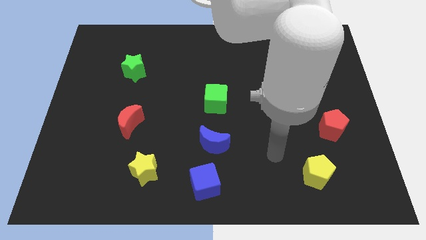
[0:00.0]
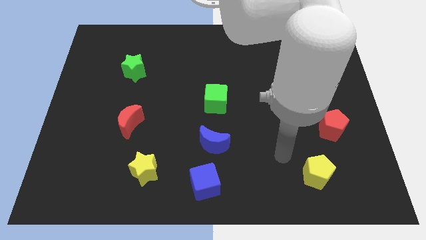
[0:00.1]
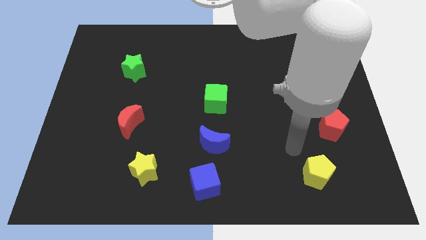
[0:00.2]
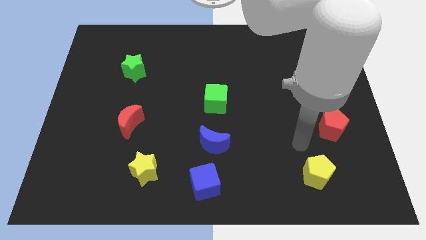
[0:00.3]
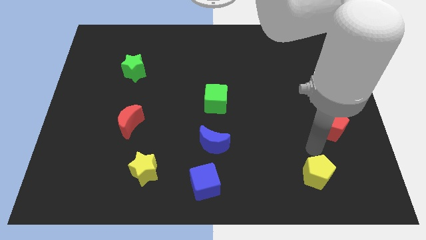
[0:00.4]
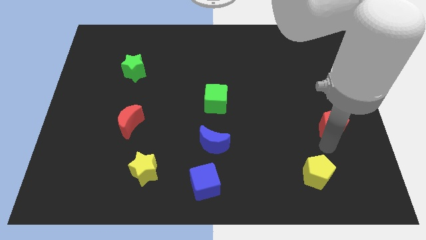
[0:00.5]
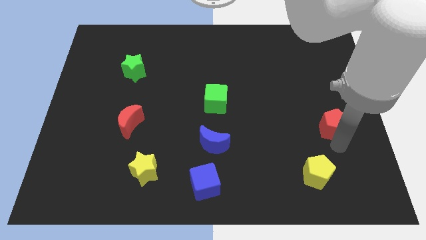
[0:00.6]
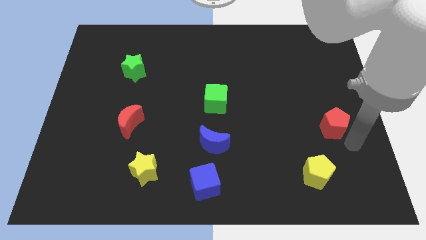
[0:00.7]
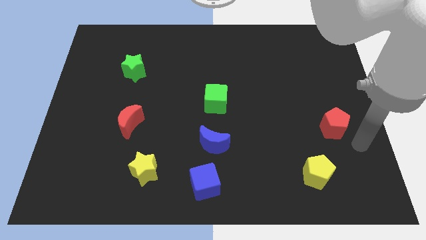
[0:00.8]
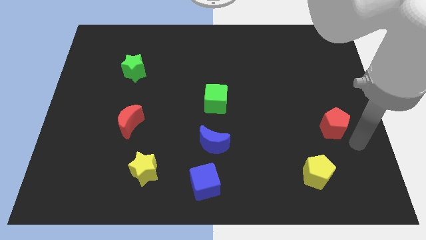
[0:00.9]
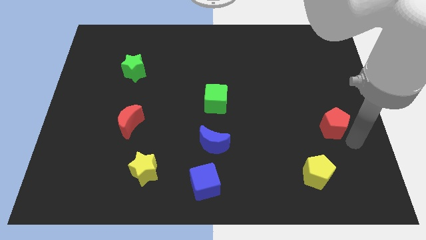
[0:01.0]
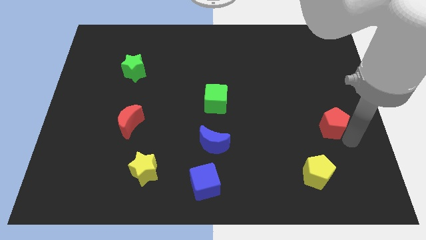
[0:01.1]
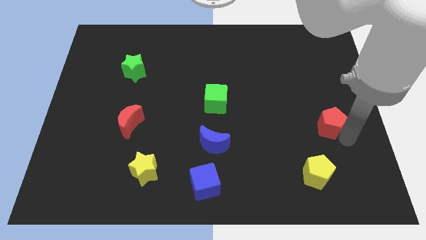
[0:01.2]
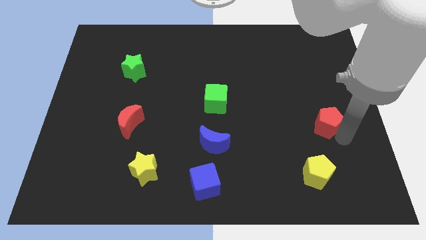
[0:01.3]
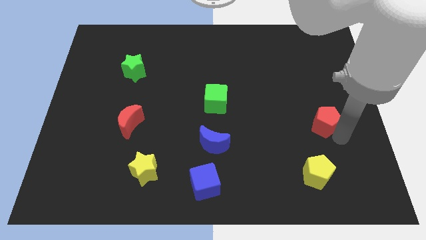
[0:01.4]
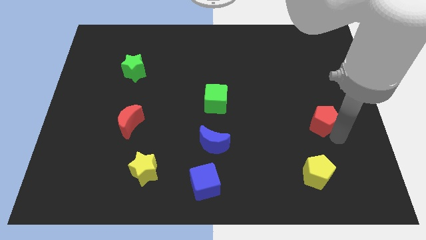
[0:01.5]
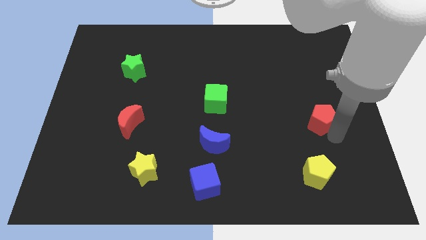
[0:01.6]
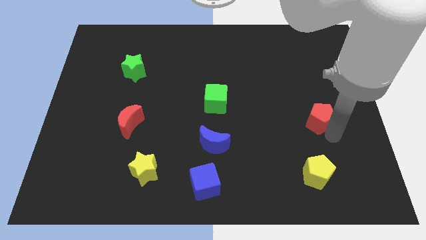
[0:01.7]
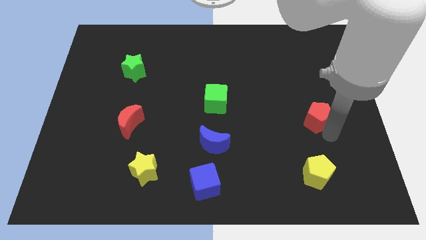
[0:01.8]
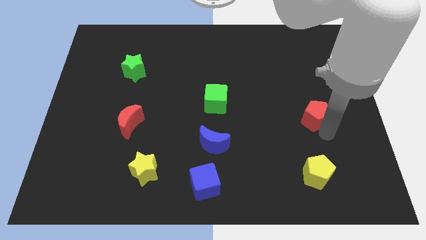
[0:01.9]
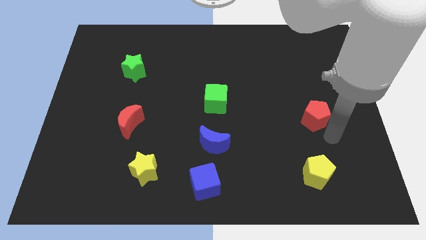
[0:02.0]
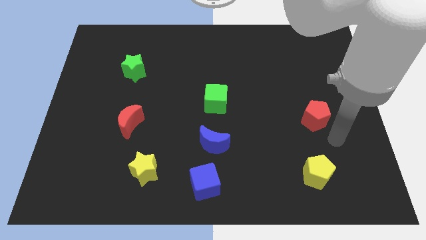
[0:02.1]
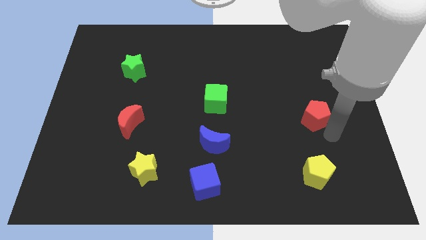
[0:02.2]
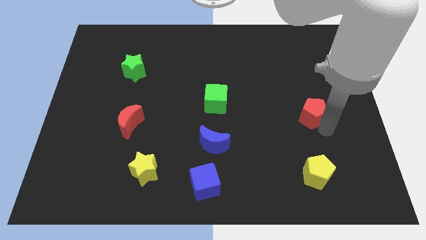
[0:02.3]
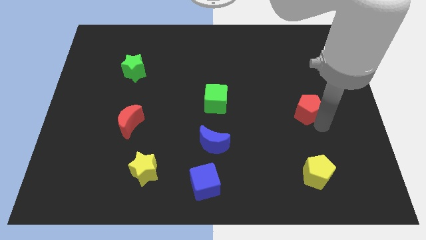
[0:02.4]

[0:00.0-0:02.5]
slightly push the red pentagon upwards and then to the left

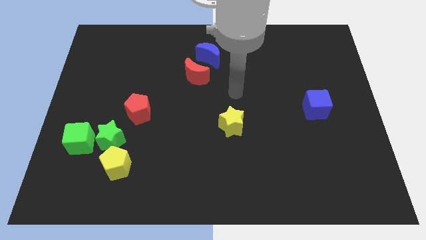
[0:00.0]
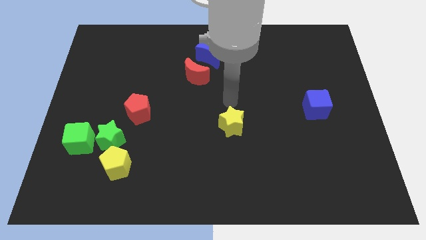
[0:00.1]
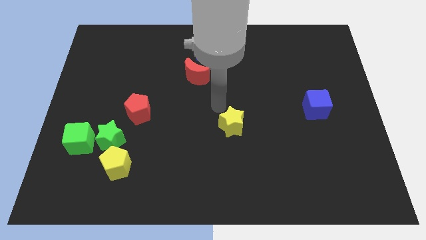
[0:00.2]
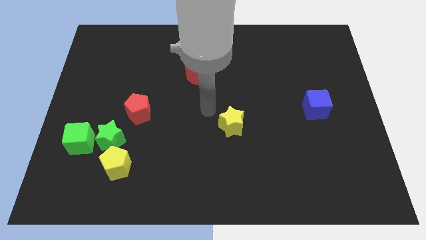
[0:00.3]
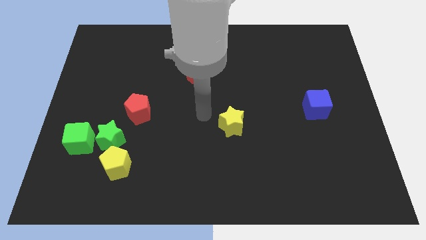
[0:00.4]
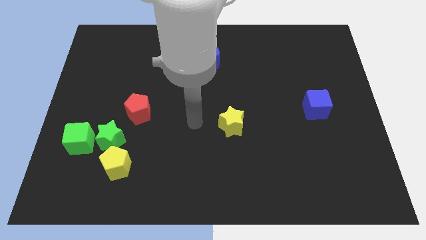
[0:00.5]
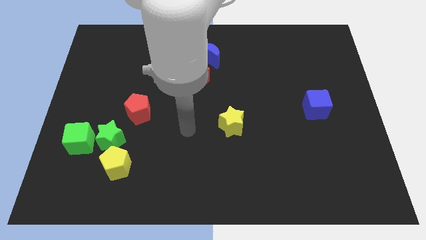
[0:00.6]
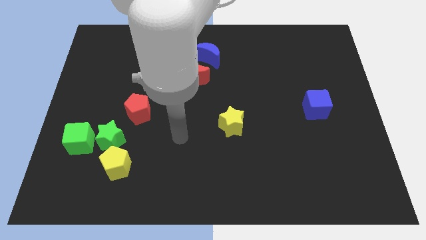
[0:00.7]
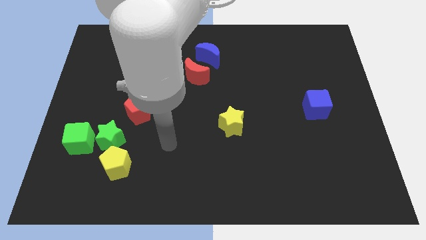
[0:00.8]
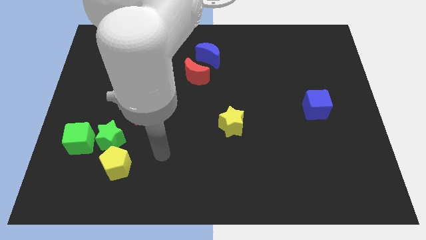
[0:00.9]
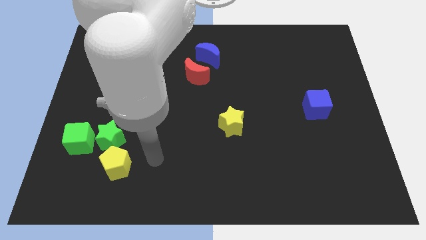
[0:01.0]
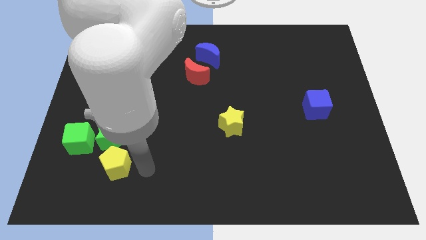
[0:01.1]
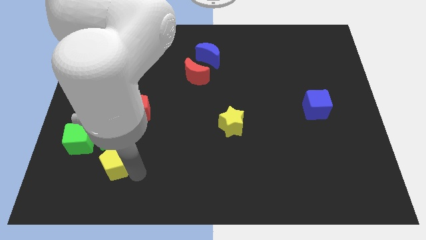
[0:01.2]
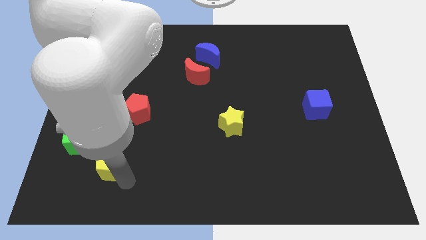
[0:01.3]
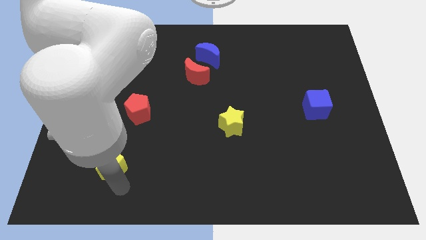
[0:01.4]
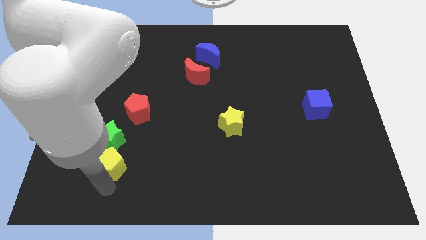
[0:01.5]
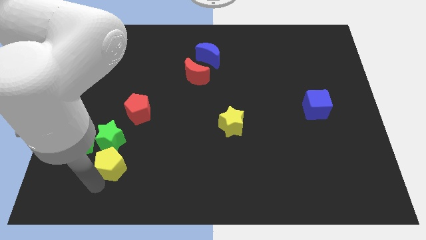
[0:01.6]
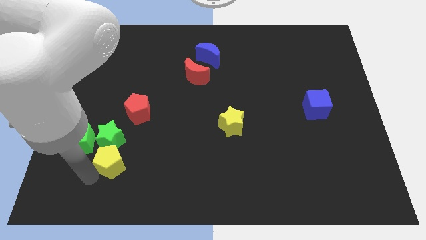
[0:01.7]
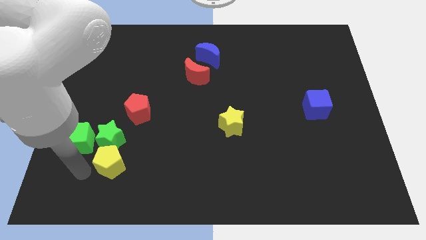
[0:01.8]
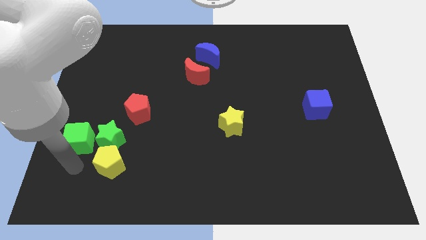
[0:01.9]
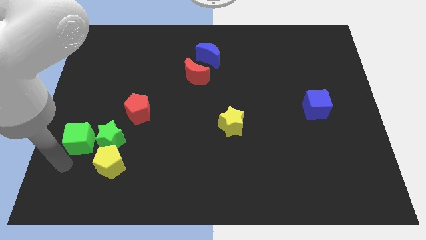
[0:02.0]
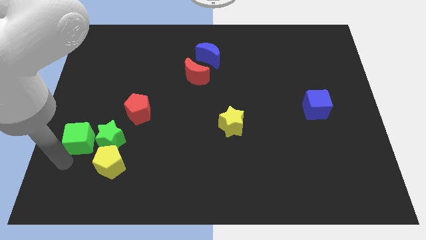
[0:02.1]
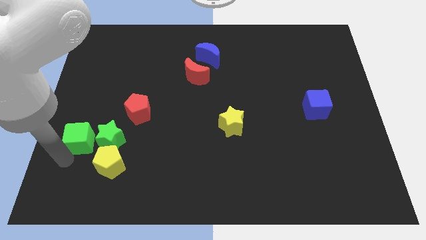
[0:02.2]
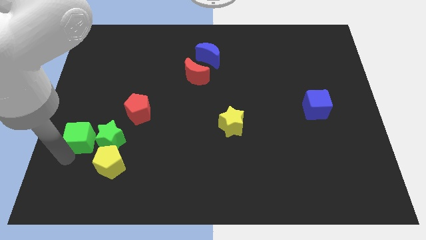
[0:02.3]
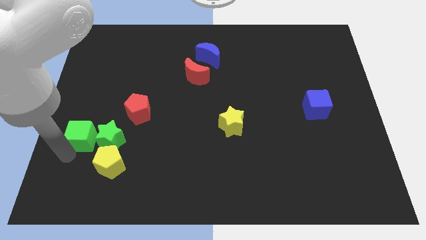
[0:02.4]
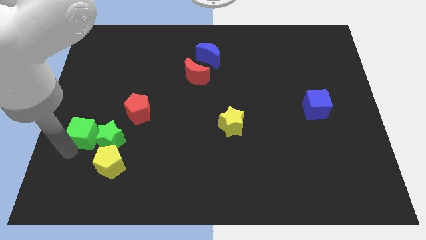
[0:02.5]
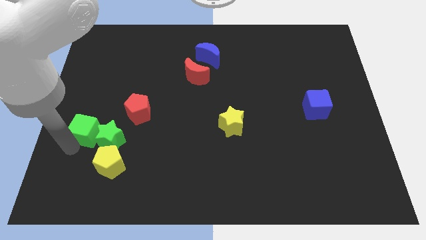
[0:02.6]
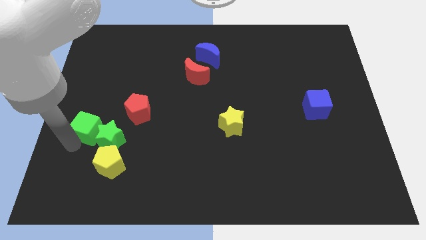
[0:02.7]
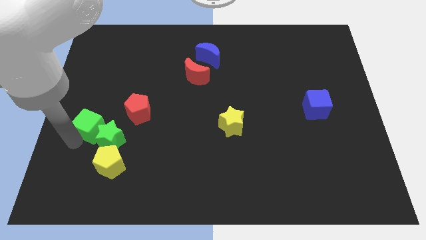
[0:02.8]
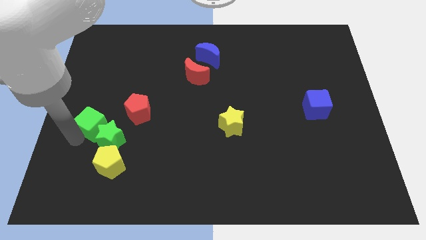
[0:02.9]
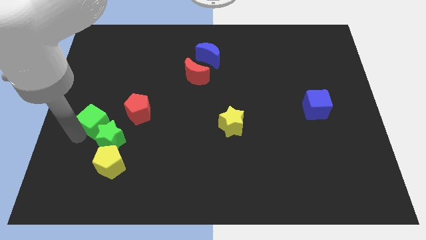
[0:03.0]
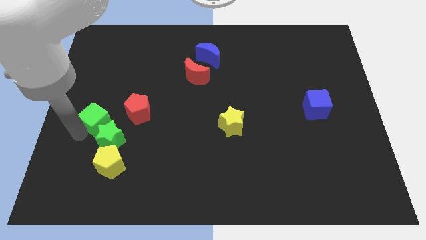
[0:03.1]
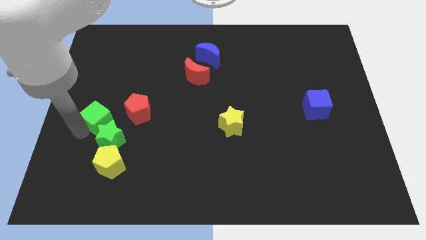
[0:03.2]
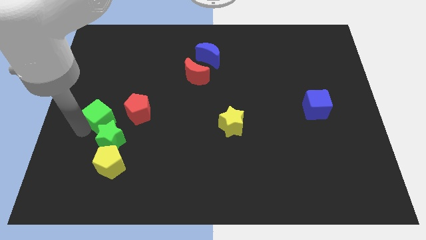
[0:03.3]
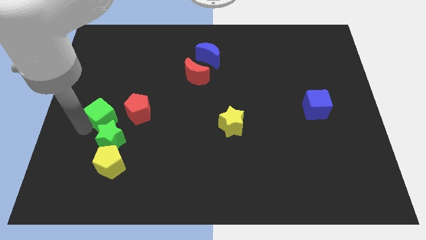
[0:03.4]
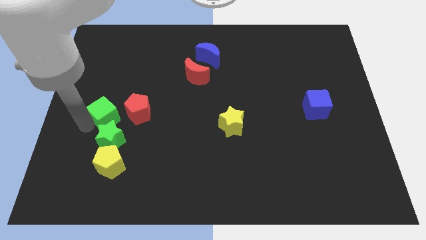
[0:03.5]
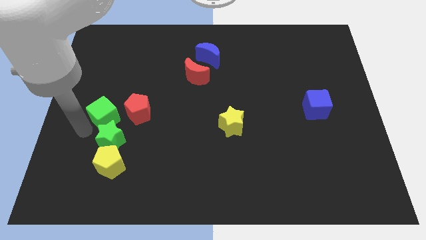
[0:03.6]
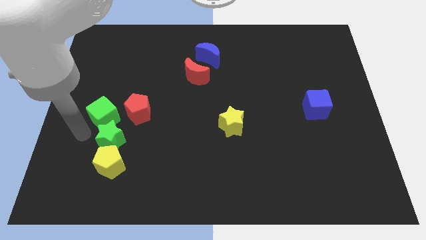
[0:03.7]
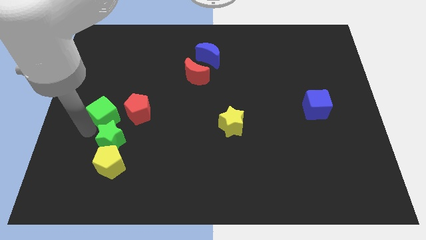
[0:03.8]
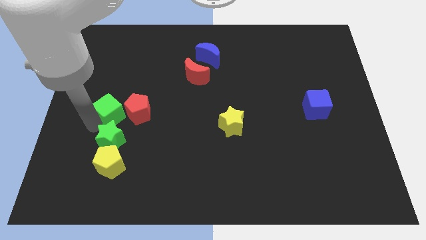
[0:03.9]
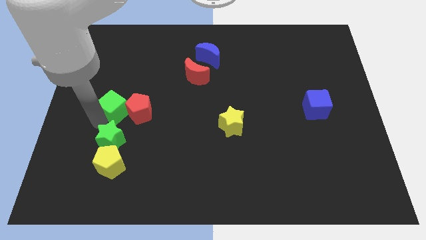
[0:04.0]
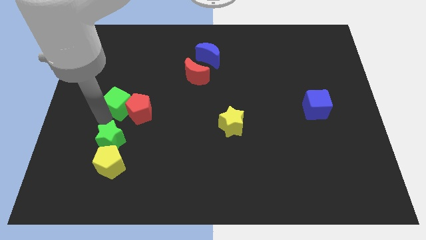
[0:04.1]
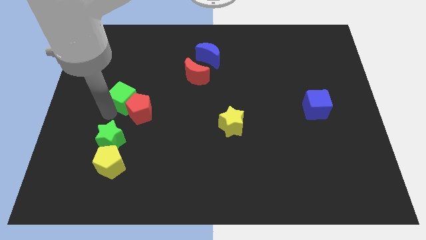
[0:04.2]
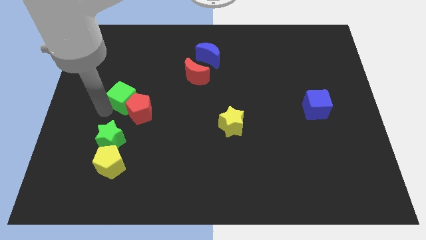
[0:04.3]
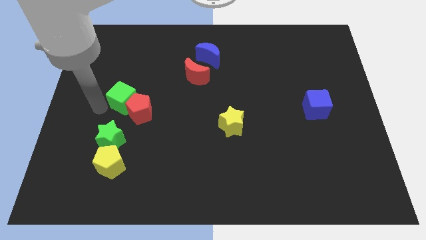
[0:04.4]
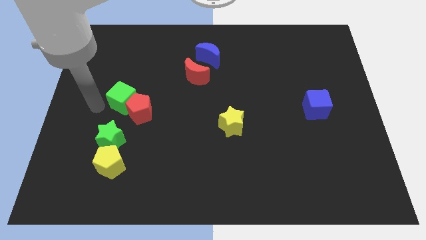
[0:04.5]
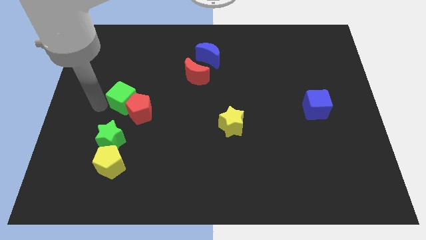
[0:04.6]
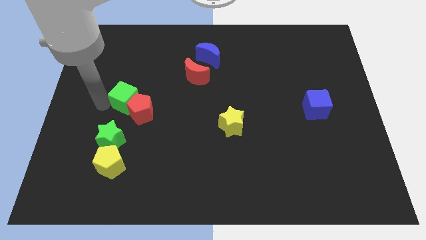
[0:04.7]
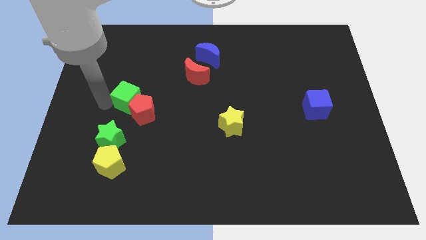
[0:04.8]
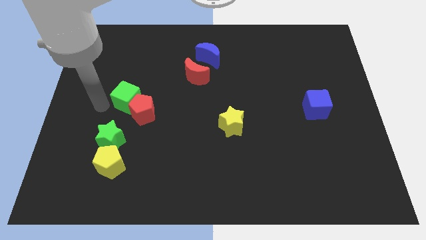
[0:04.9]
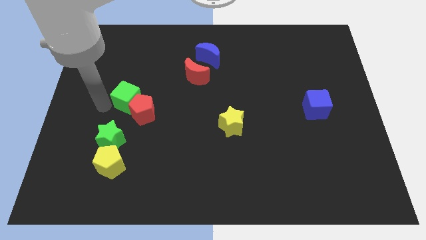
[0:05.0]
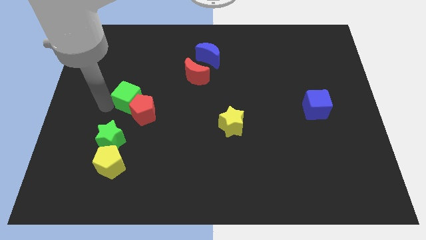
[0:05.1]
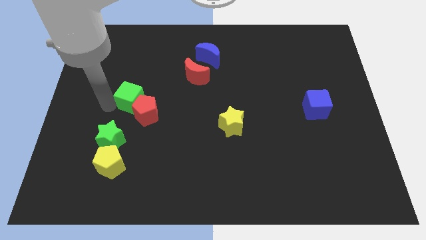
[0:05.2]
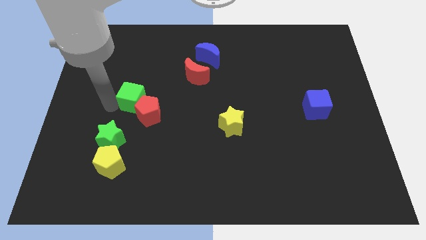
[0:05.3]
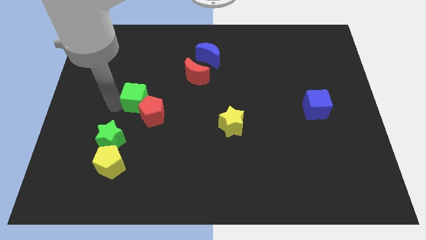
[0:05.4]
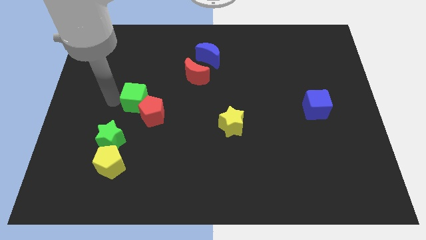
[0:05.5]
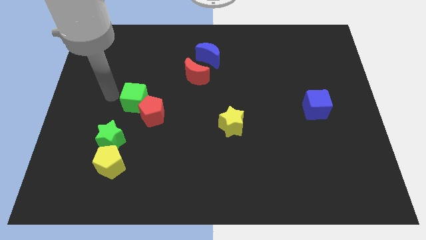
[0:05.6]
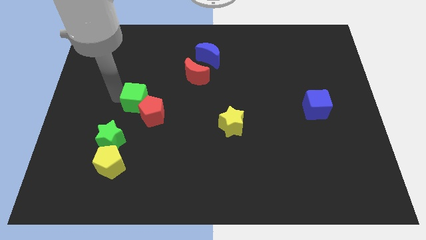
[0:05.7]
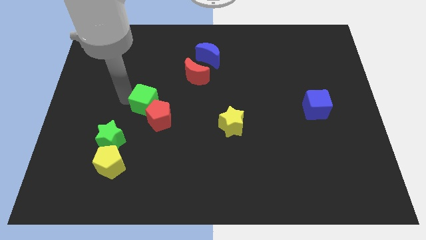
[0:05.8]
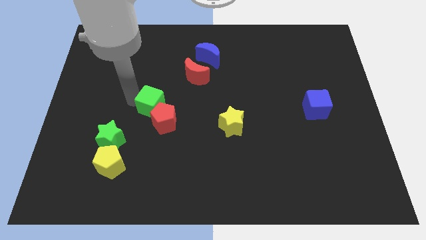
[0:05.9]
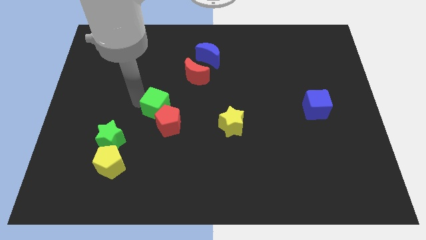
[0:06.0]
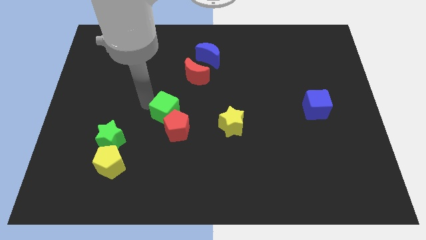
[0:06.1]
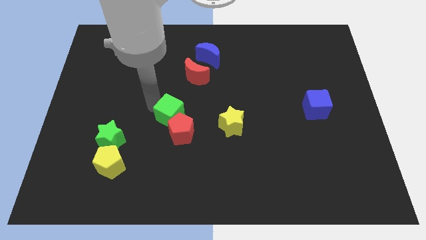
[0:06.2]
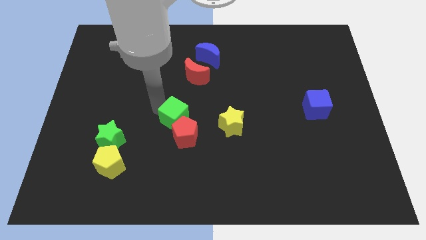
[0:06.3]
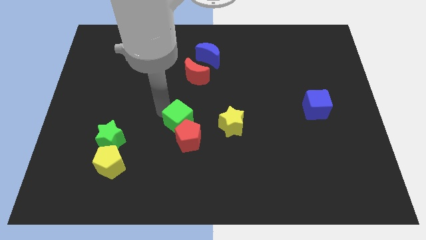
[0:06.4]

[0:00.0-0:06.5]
slide the green cube right
